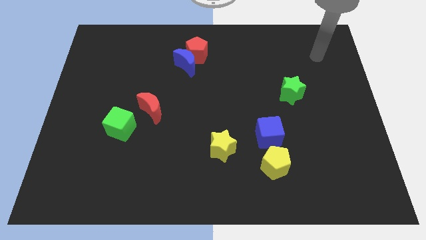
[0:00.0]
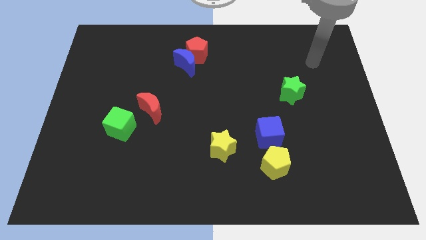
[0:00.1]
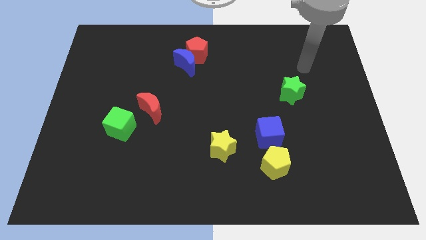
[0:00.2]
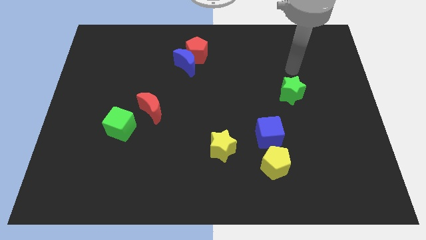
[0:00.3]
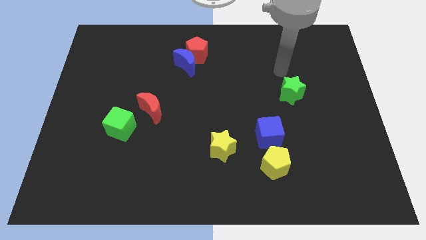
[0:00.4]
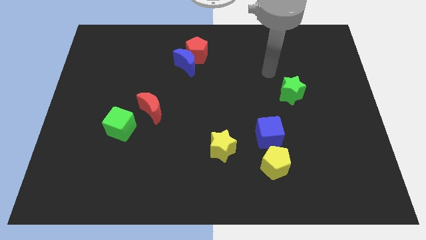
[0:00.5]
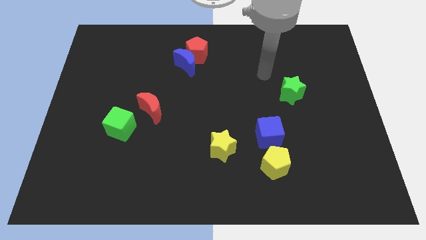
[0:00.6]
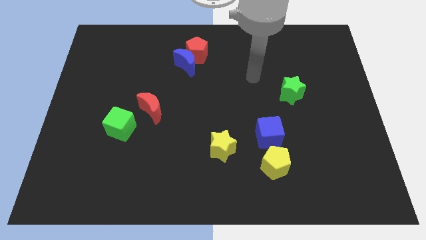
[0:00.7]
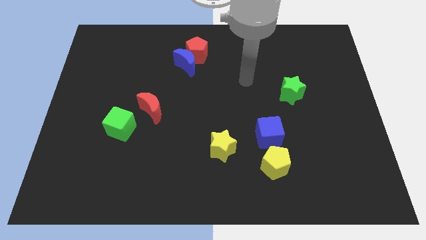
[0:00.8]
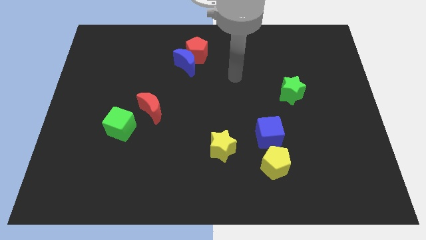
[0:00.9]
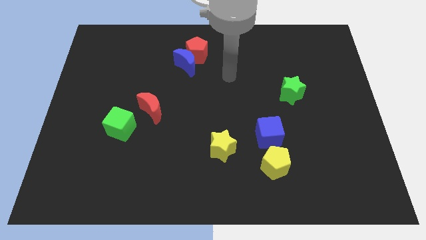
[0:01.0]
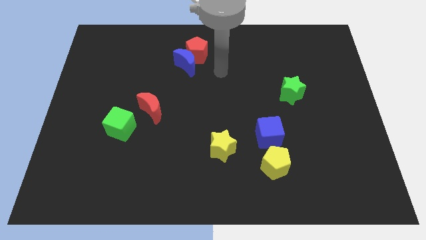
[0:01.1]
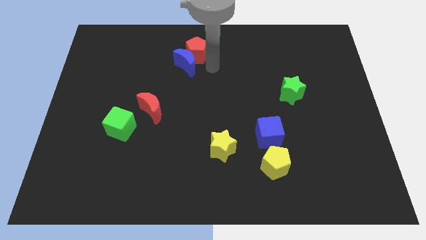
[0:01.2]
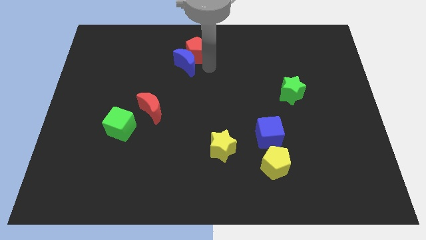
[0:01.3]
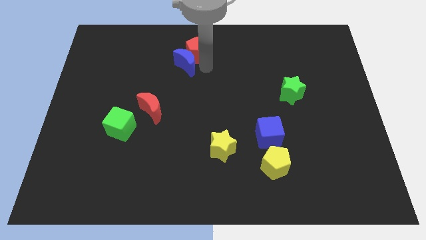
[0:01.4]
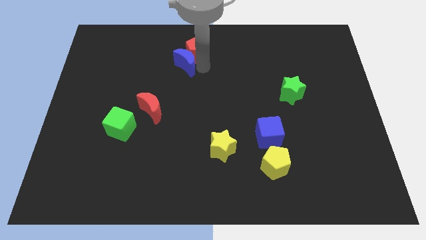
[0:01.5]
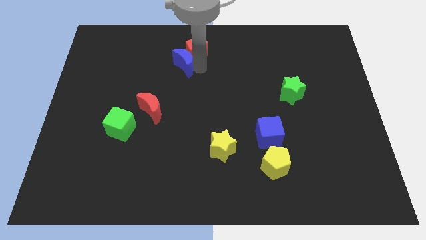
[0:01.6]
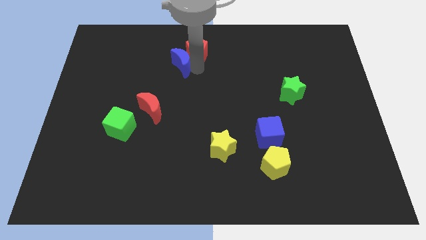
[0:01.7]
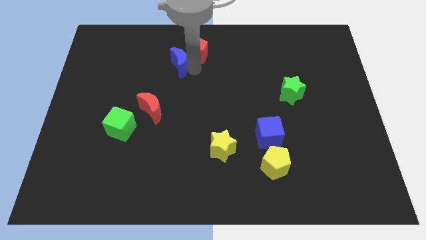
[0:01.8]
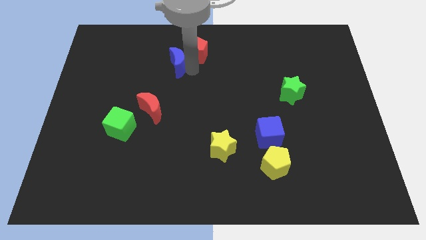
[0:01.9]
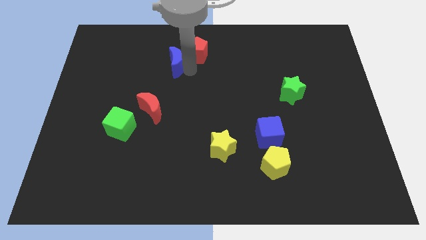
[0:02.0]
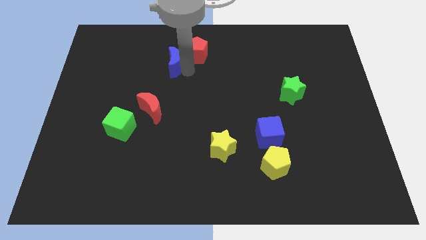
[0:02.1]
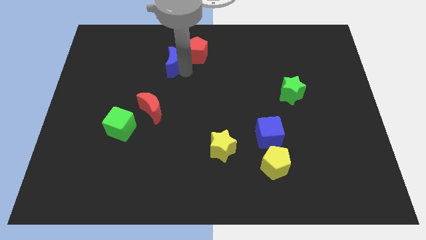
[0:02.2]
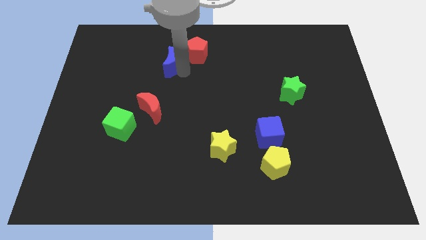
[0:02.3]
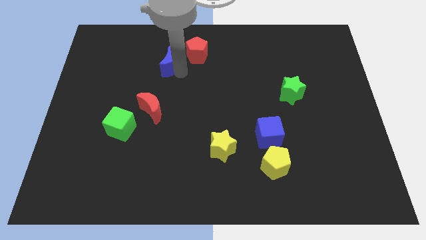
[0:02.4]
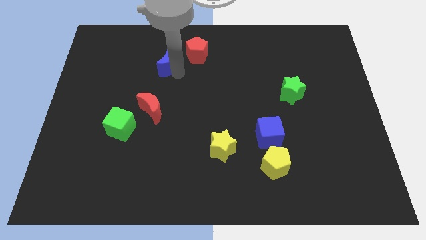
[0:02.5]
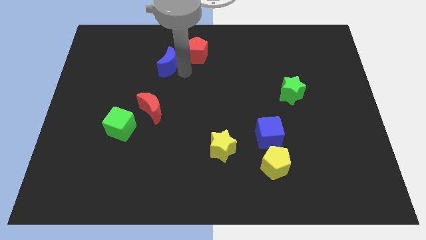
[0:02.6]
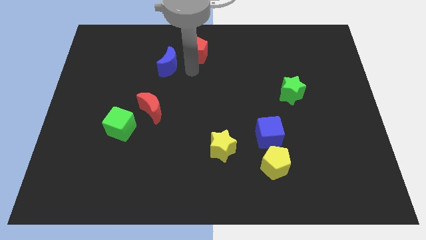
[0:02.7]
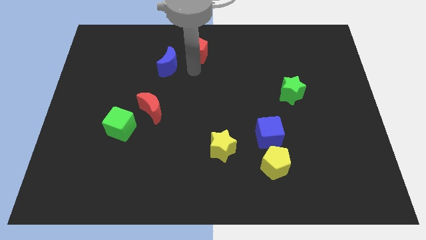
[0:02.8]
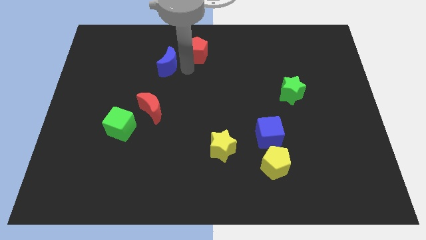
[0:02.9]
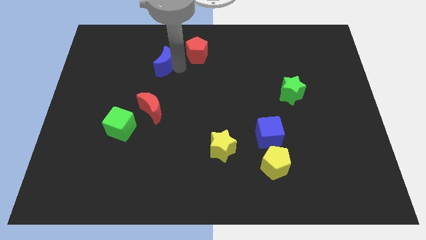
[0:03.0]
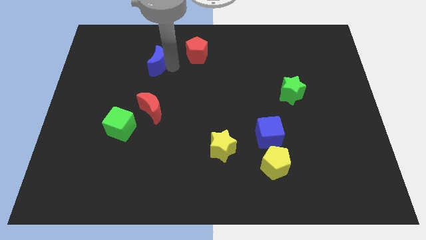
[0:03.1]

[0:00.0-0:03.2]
move the blue moon left a little

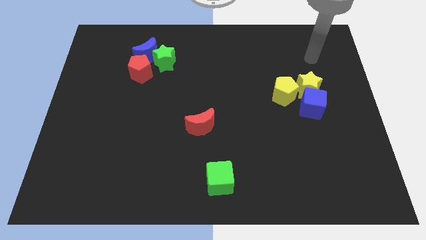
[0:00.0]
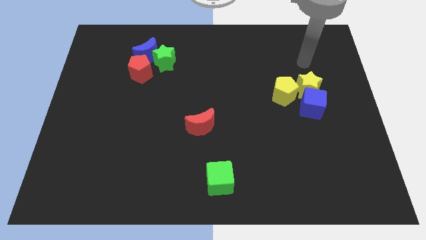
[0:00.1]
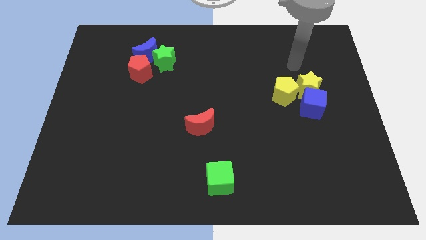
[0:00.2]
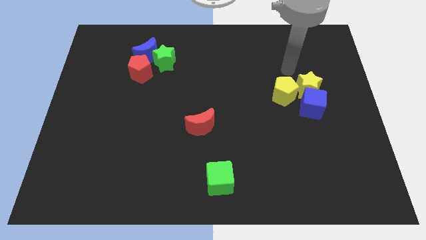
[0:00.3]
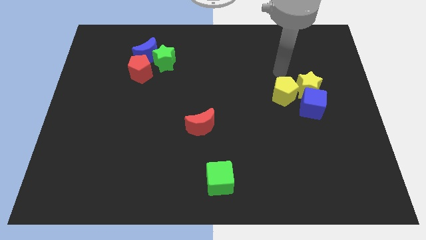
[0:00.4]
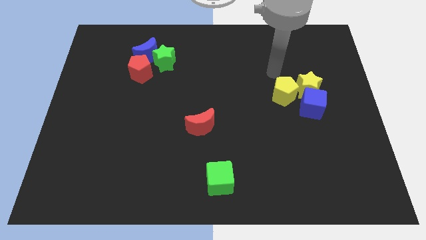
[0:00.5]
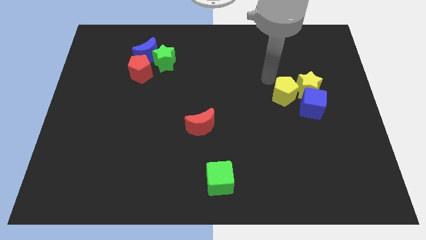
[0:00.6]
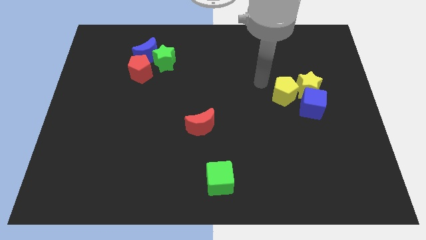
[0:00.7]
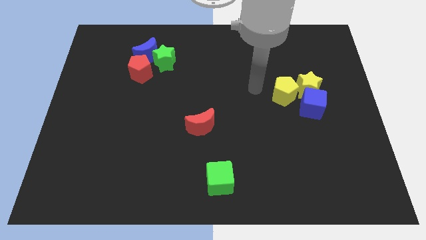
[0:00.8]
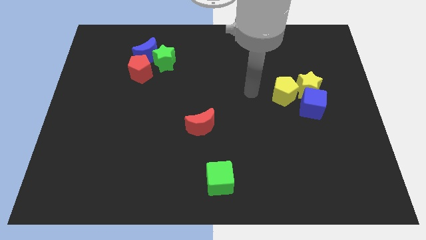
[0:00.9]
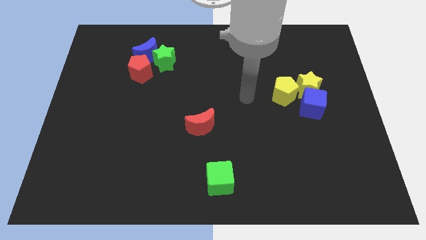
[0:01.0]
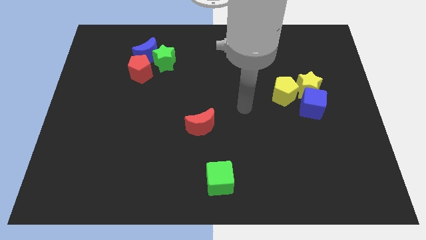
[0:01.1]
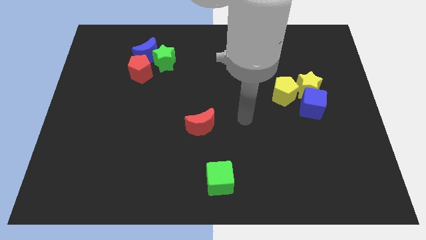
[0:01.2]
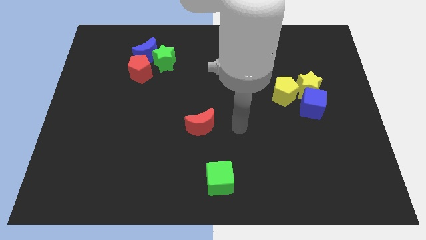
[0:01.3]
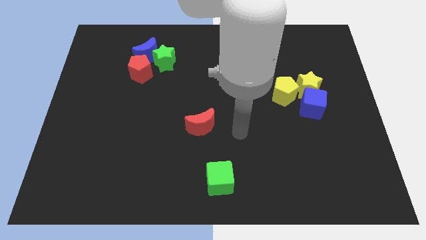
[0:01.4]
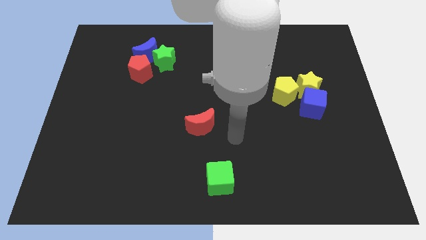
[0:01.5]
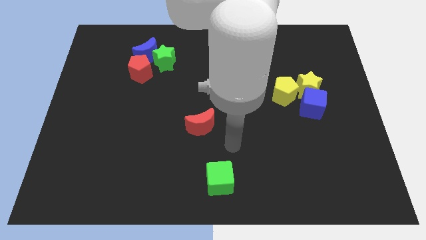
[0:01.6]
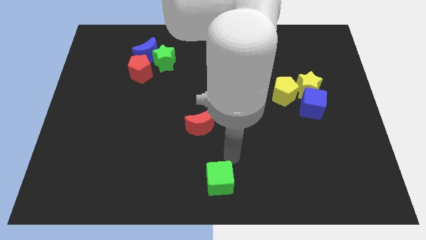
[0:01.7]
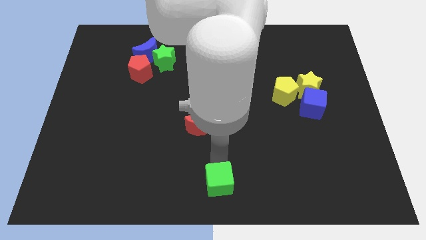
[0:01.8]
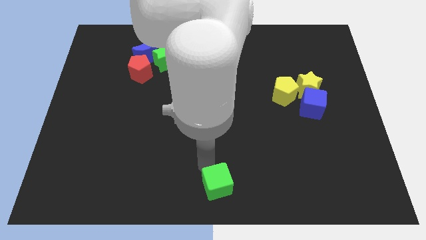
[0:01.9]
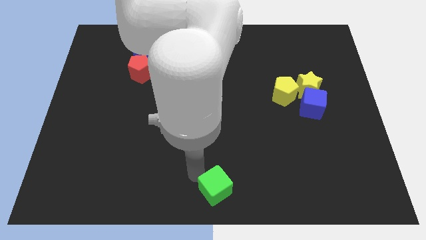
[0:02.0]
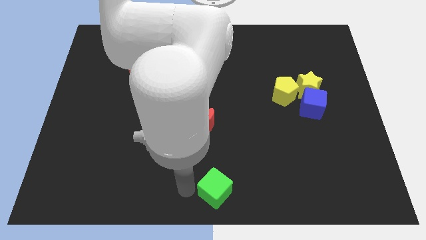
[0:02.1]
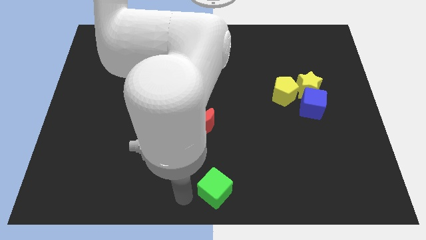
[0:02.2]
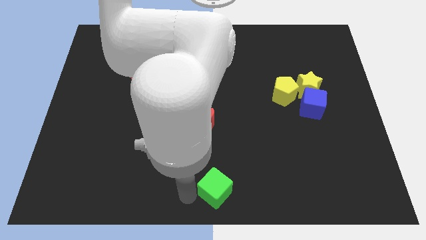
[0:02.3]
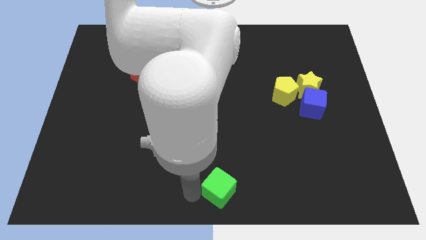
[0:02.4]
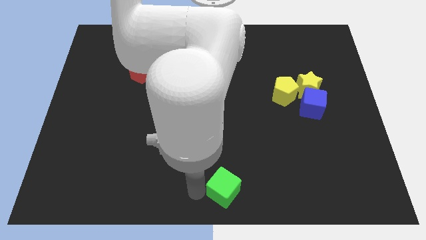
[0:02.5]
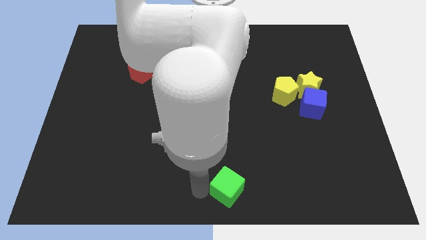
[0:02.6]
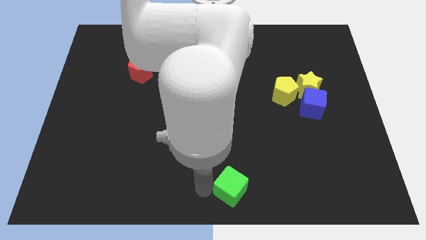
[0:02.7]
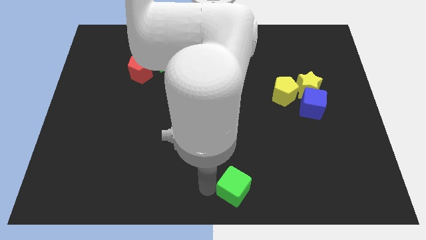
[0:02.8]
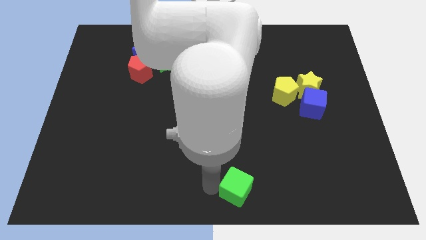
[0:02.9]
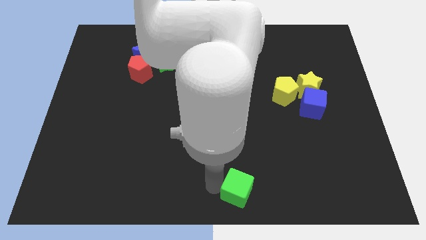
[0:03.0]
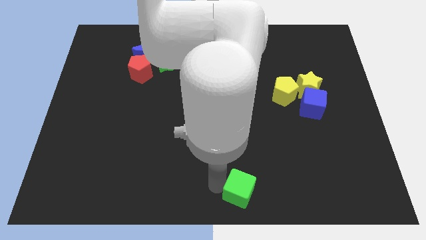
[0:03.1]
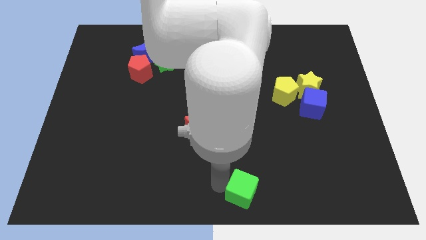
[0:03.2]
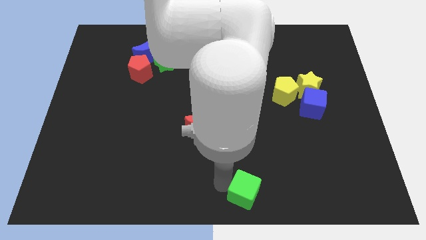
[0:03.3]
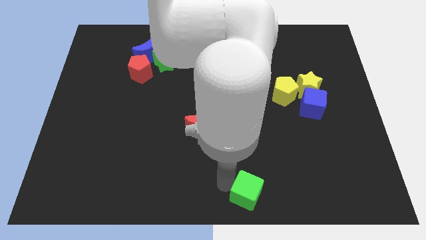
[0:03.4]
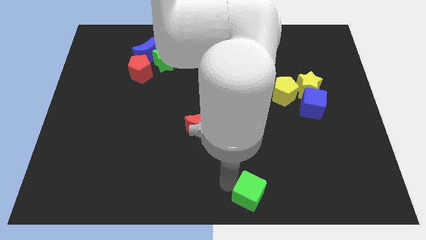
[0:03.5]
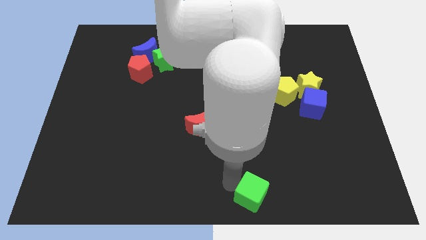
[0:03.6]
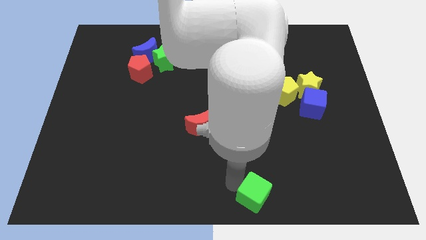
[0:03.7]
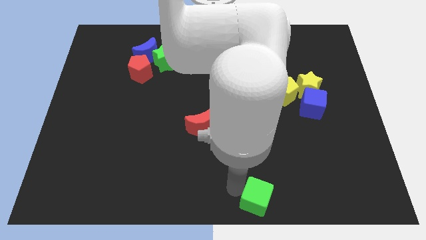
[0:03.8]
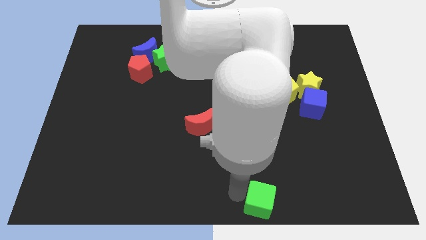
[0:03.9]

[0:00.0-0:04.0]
push the green cube to the right a little

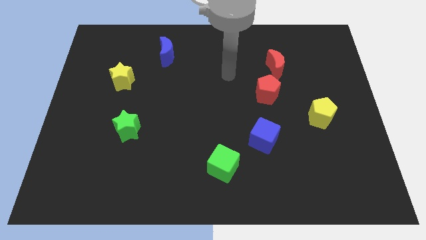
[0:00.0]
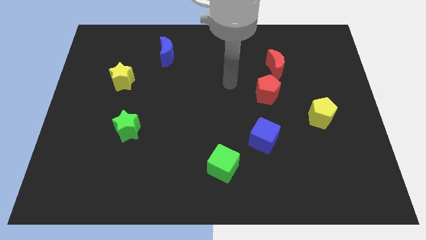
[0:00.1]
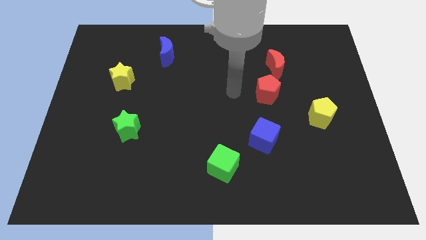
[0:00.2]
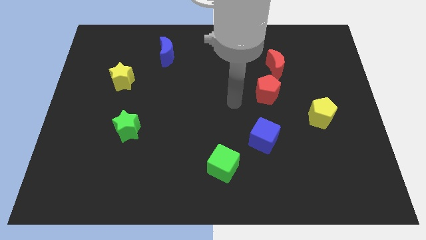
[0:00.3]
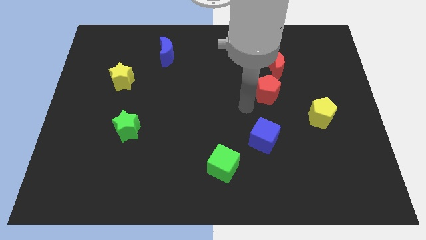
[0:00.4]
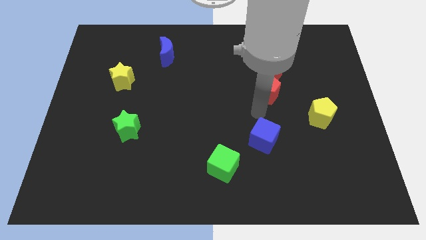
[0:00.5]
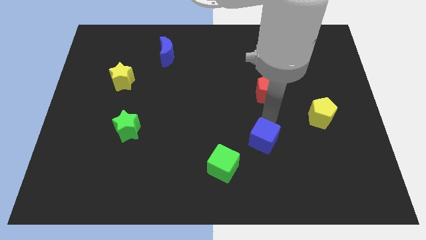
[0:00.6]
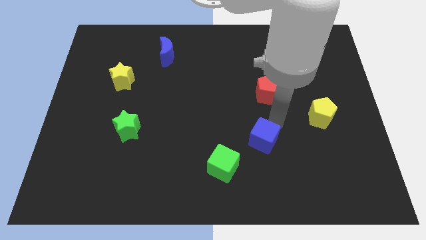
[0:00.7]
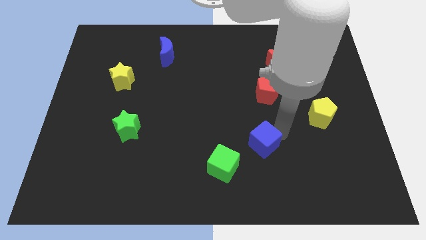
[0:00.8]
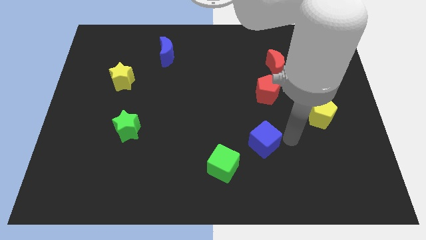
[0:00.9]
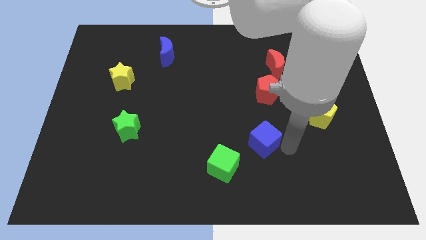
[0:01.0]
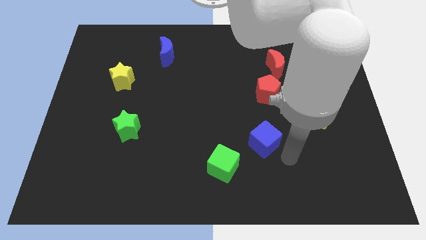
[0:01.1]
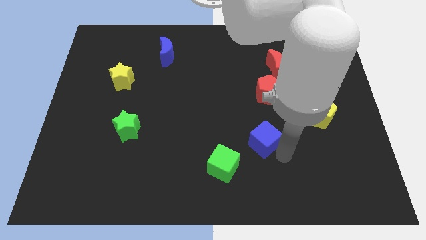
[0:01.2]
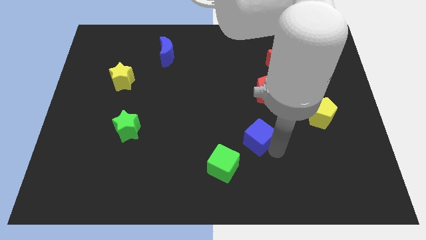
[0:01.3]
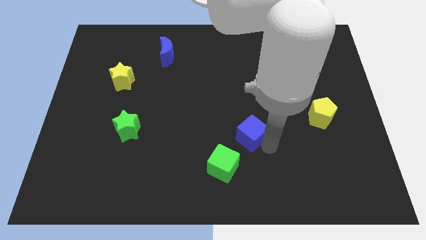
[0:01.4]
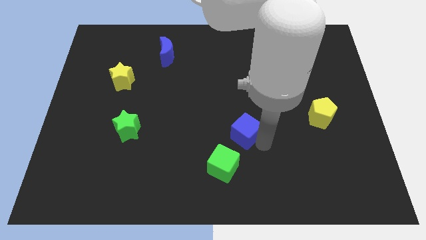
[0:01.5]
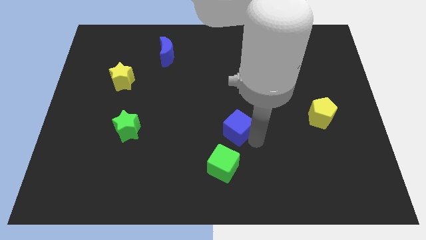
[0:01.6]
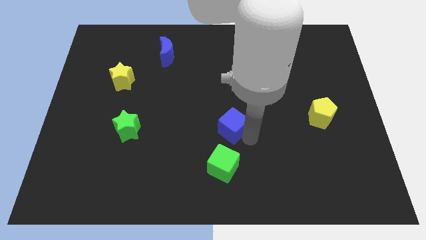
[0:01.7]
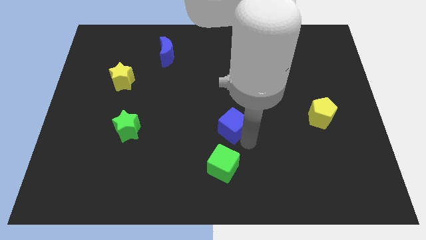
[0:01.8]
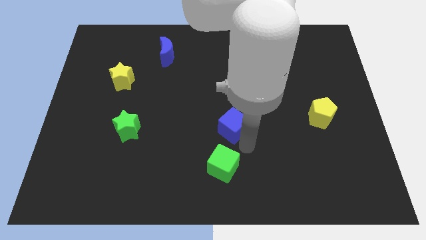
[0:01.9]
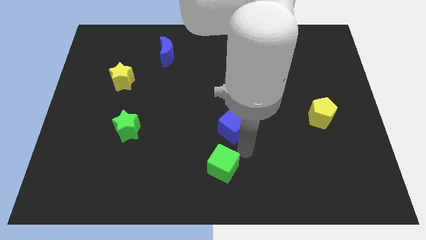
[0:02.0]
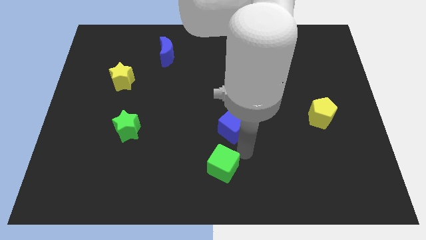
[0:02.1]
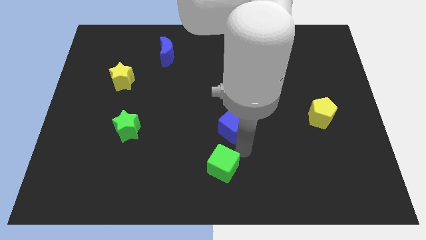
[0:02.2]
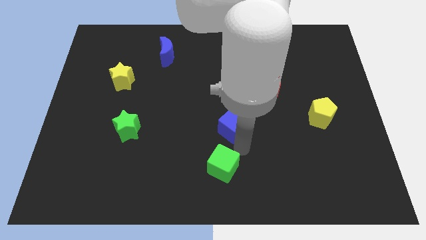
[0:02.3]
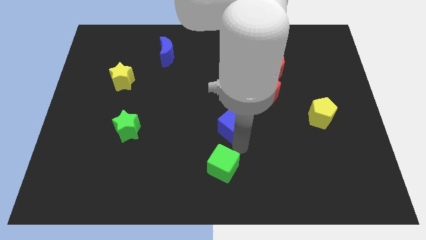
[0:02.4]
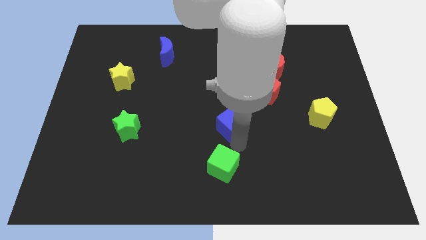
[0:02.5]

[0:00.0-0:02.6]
push the blue cube up and to the left a little bit
